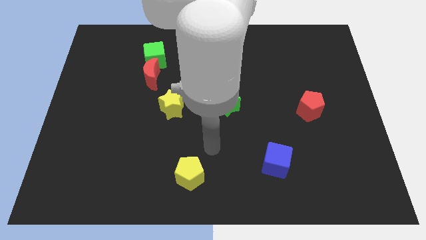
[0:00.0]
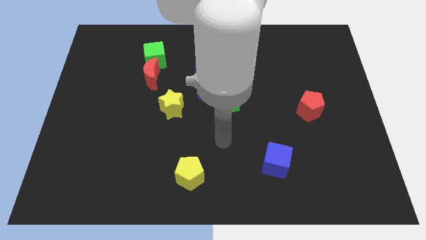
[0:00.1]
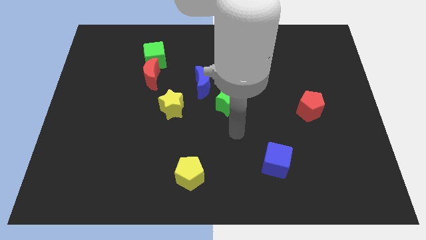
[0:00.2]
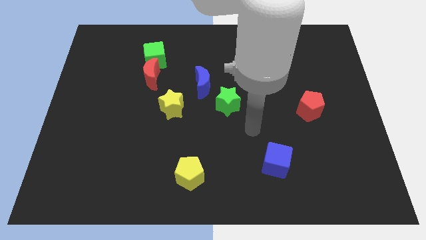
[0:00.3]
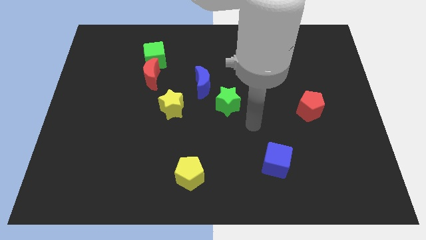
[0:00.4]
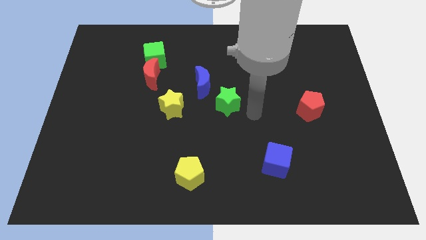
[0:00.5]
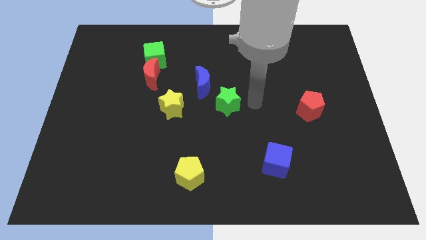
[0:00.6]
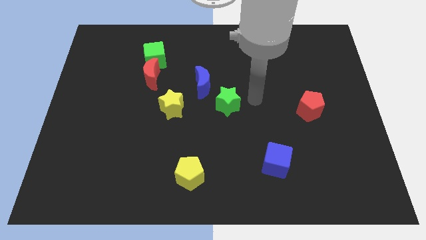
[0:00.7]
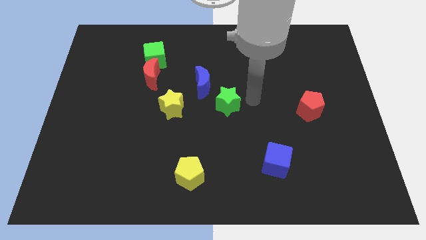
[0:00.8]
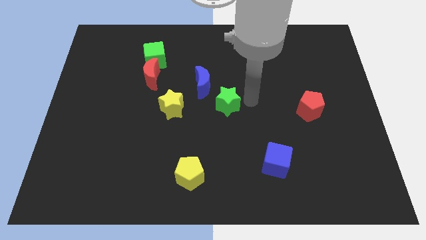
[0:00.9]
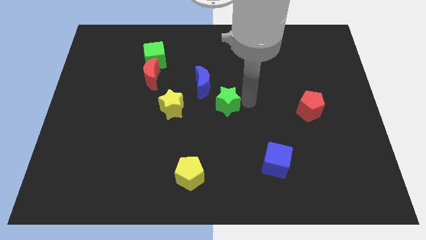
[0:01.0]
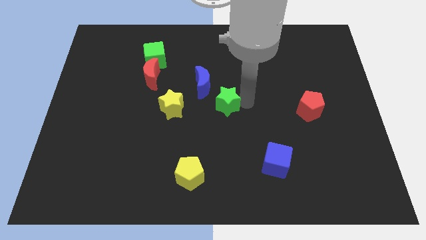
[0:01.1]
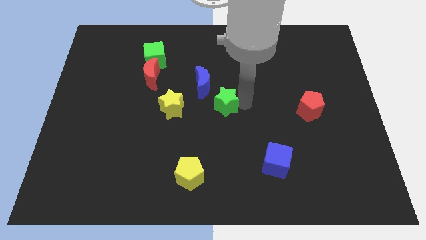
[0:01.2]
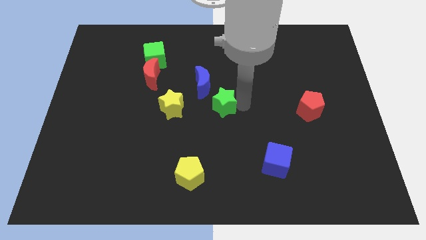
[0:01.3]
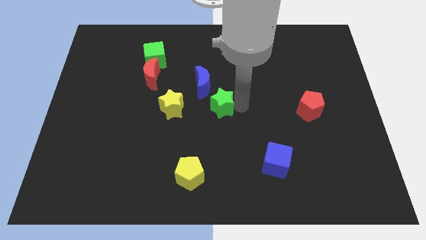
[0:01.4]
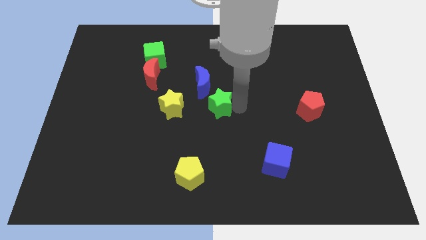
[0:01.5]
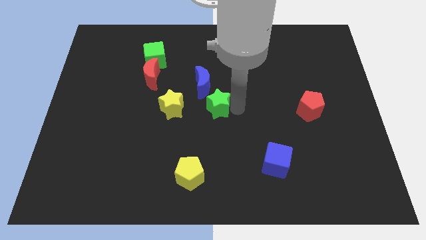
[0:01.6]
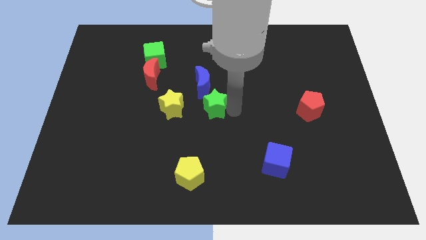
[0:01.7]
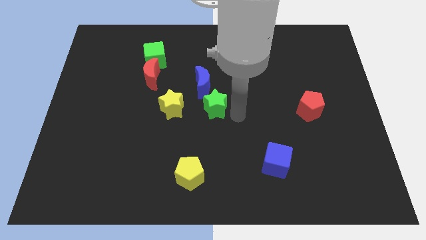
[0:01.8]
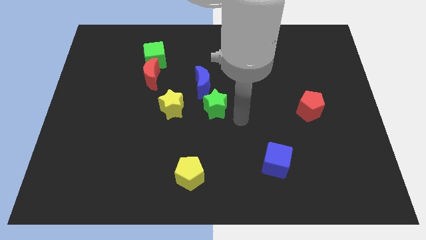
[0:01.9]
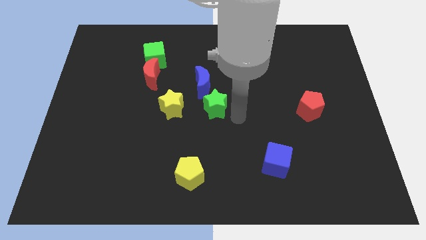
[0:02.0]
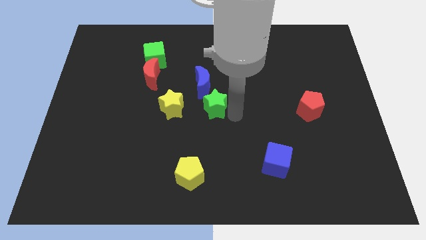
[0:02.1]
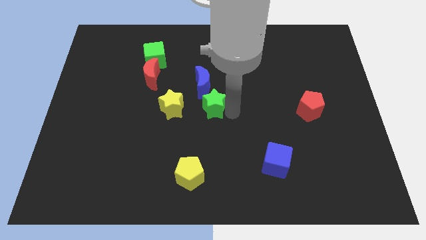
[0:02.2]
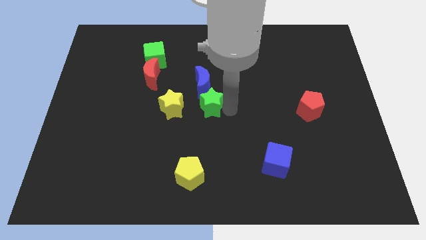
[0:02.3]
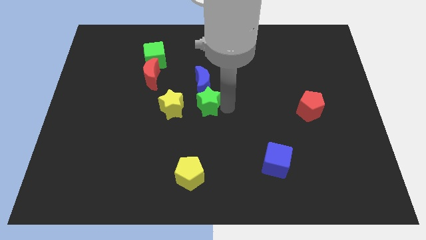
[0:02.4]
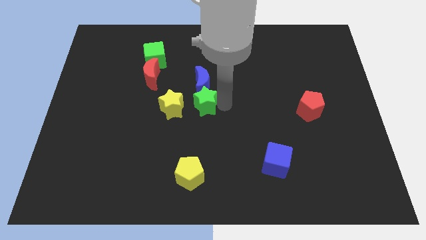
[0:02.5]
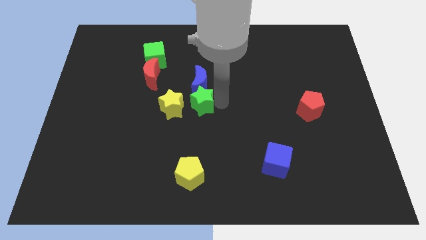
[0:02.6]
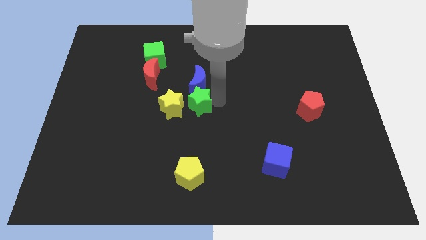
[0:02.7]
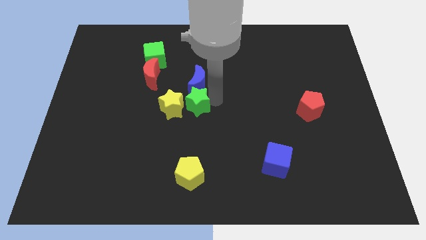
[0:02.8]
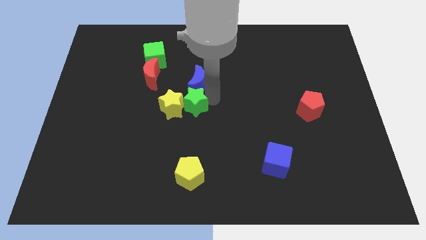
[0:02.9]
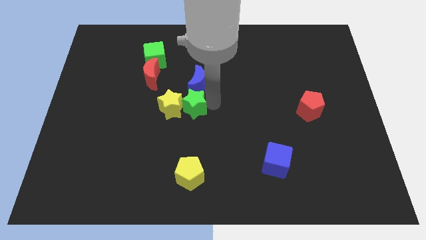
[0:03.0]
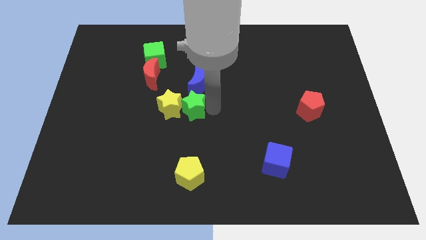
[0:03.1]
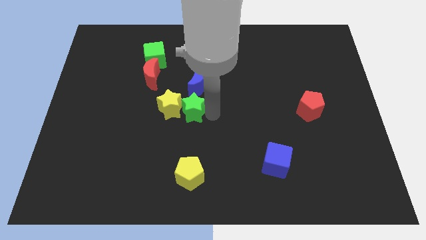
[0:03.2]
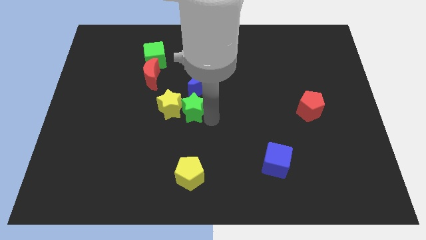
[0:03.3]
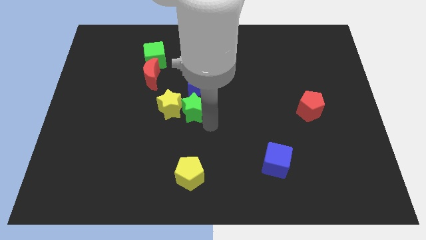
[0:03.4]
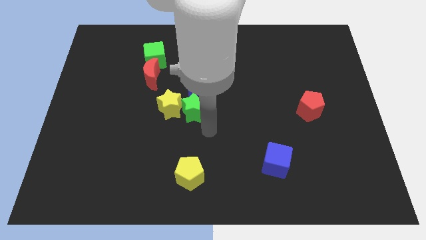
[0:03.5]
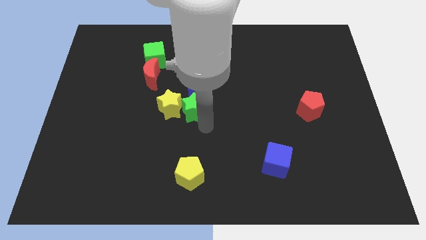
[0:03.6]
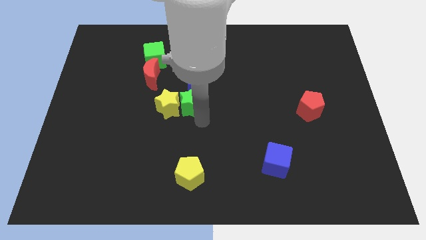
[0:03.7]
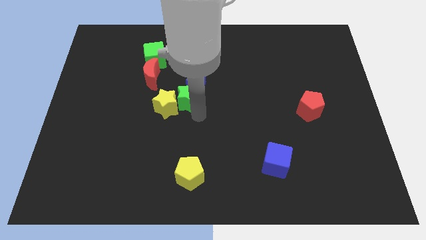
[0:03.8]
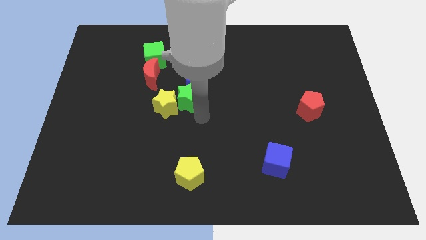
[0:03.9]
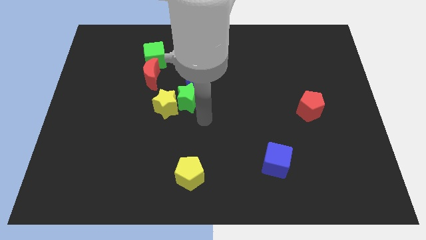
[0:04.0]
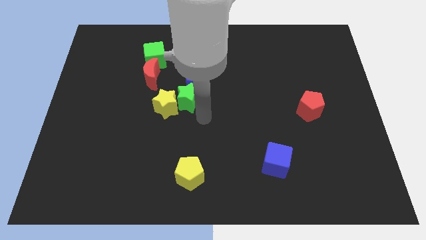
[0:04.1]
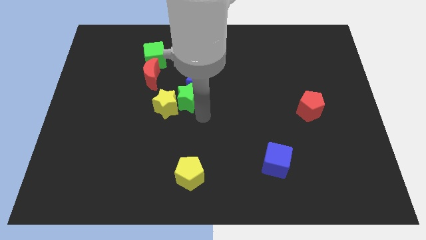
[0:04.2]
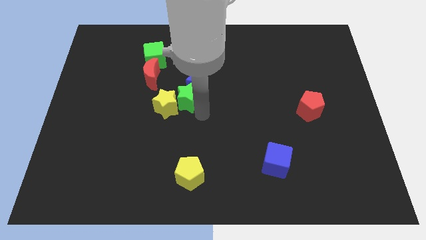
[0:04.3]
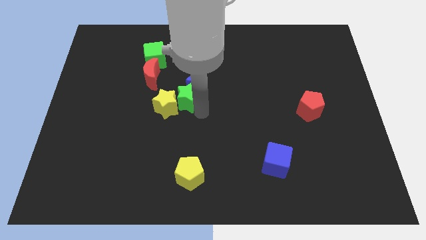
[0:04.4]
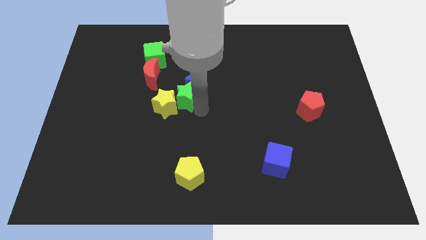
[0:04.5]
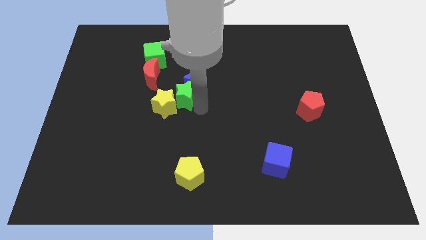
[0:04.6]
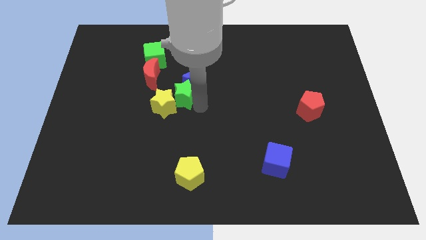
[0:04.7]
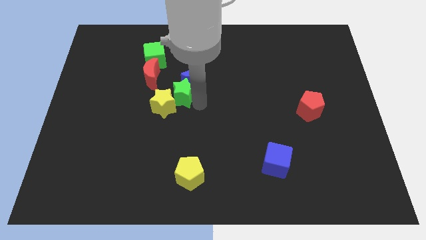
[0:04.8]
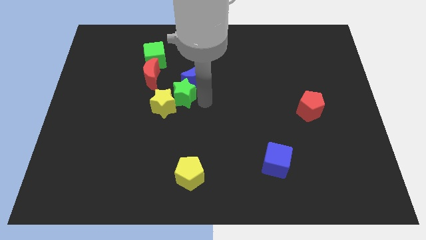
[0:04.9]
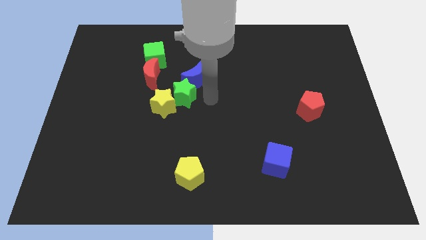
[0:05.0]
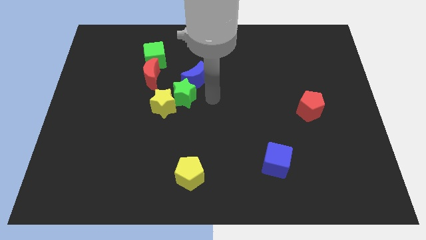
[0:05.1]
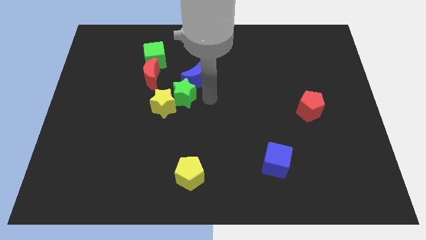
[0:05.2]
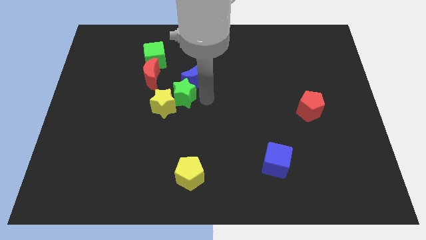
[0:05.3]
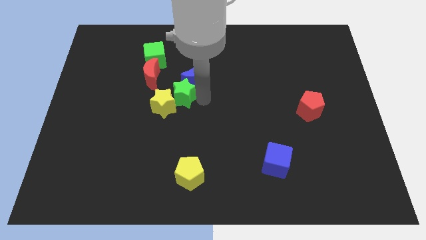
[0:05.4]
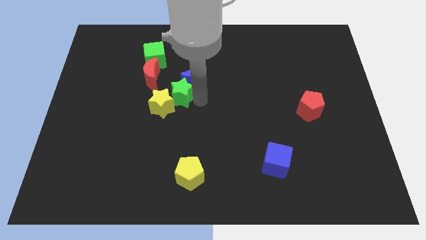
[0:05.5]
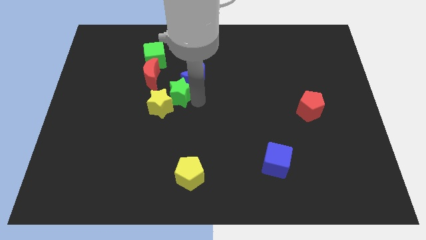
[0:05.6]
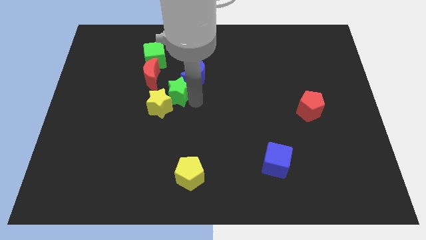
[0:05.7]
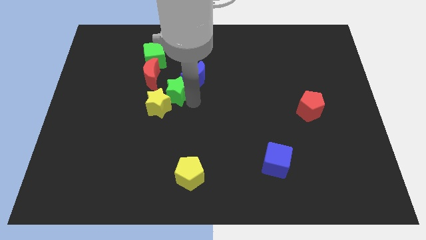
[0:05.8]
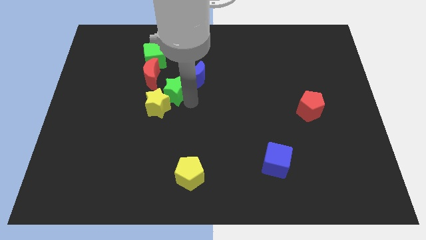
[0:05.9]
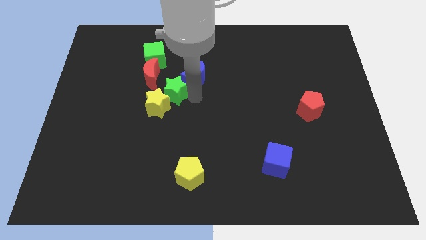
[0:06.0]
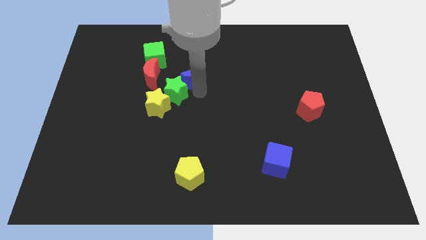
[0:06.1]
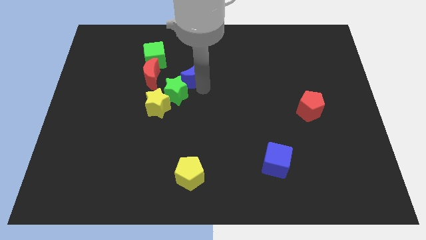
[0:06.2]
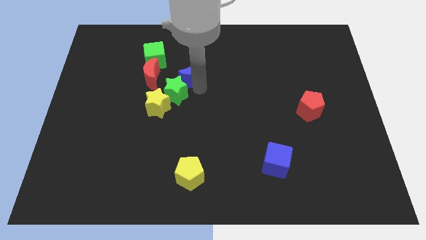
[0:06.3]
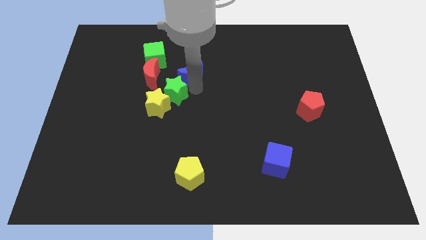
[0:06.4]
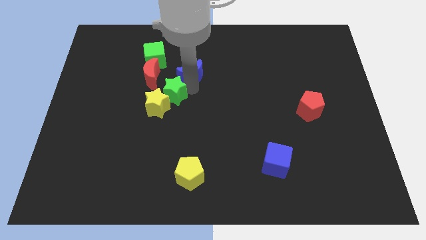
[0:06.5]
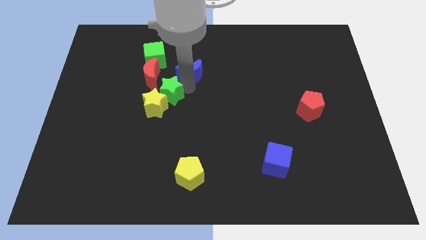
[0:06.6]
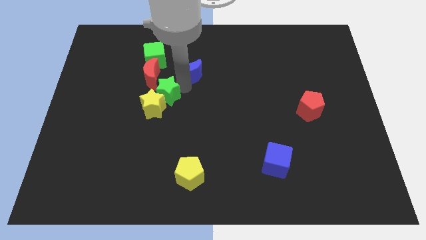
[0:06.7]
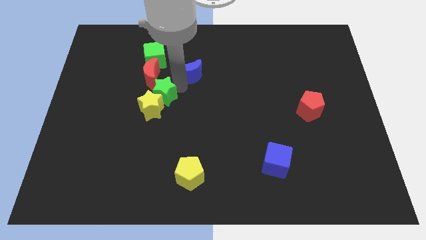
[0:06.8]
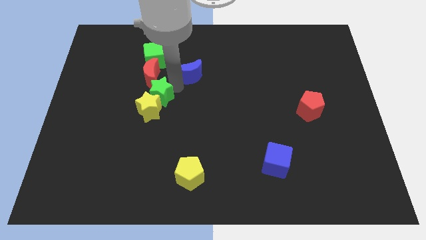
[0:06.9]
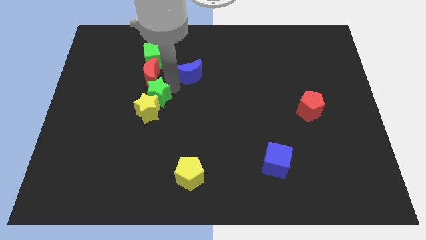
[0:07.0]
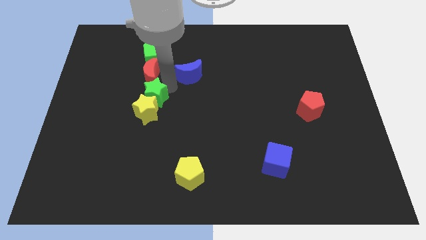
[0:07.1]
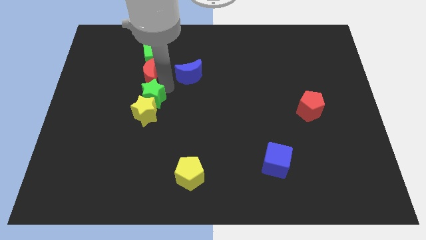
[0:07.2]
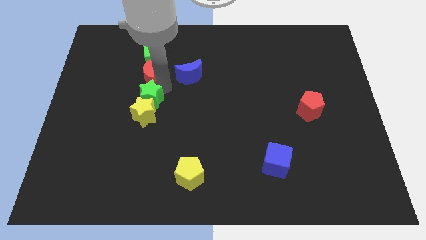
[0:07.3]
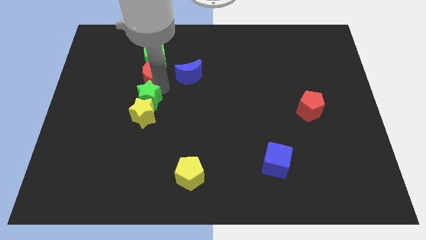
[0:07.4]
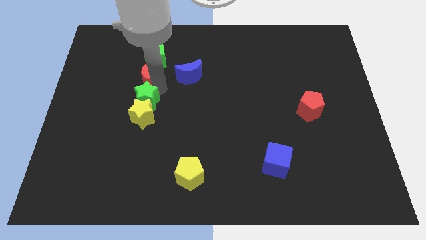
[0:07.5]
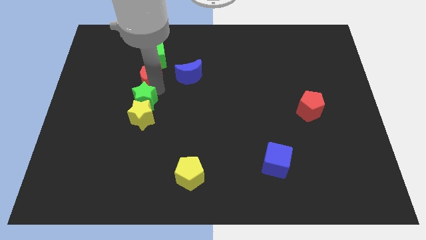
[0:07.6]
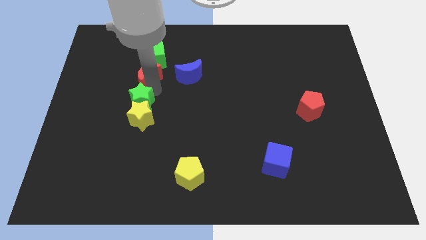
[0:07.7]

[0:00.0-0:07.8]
slide the green star to the left

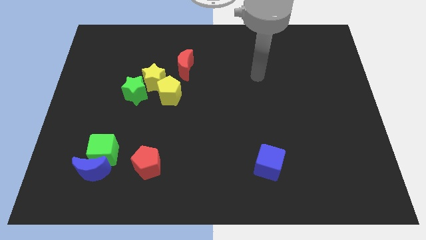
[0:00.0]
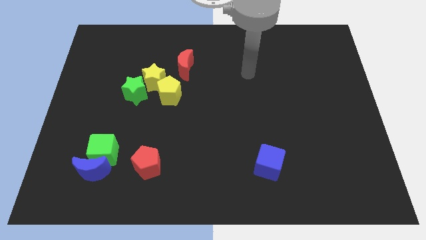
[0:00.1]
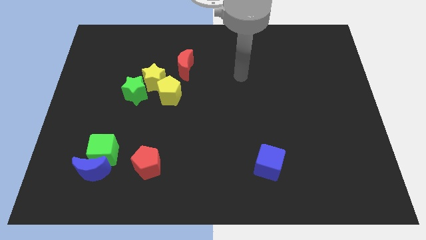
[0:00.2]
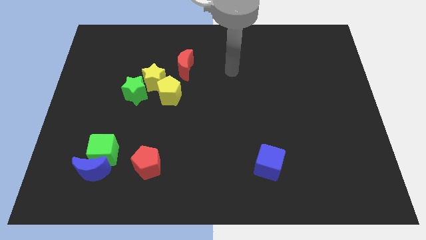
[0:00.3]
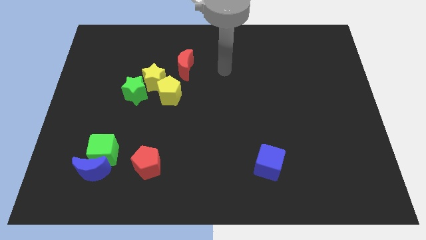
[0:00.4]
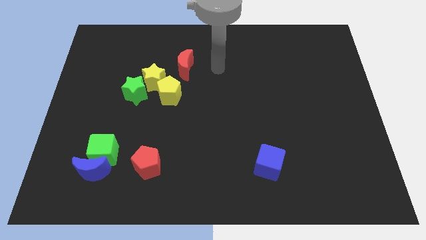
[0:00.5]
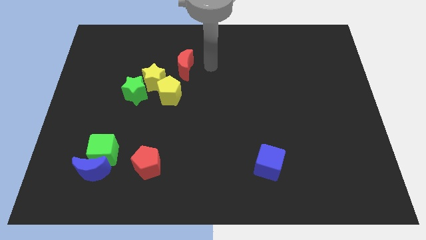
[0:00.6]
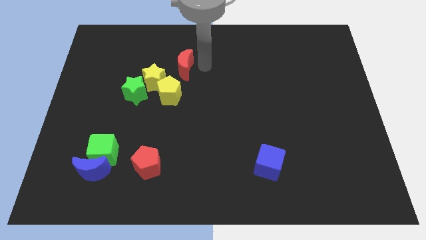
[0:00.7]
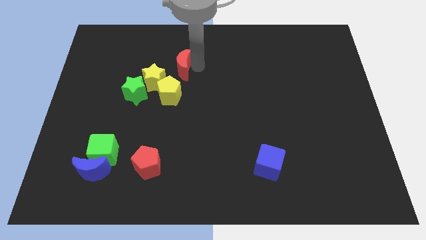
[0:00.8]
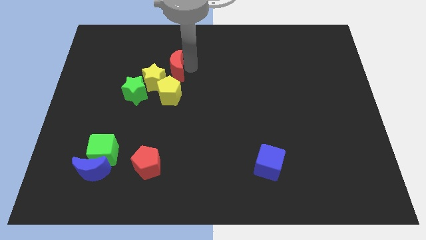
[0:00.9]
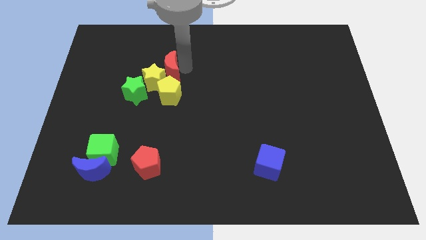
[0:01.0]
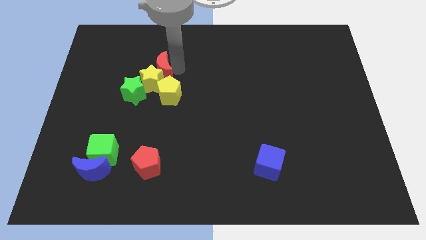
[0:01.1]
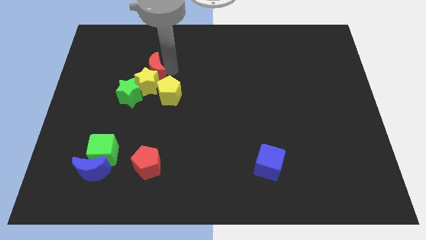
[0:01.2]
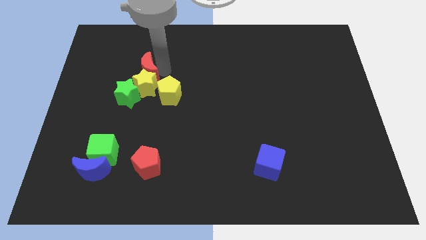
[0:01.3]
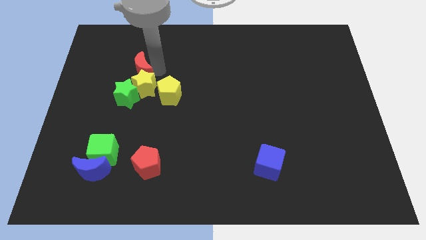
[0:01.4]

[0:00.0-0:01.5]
push the red moon a bit down and then left
